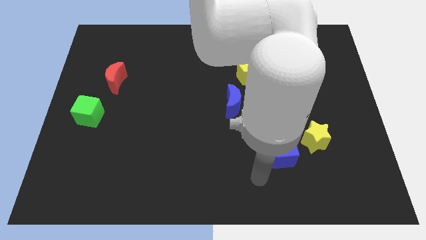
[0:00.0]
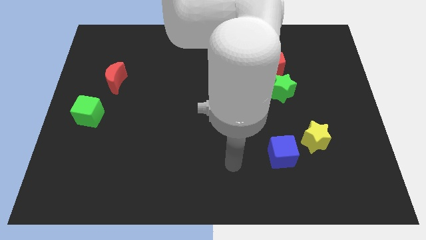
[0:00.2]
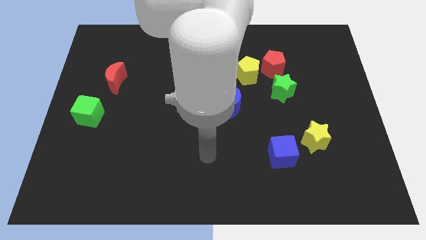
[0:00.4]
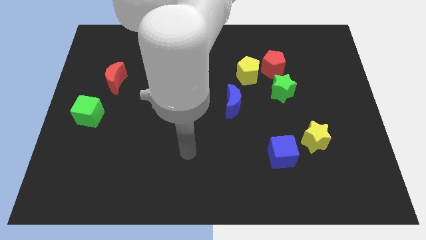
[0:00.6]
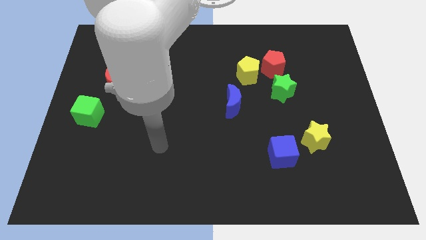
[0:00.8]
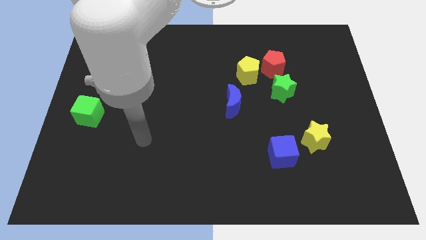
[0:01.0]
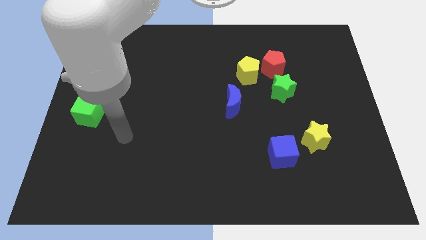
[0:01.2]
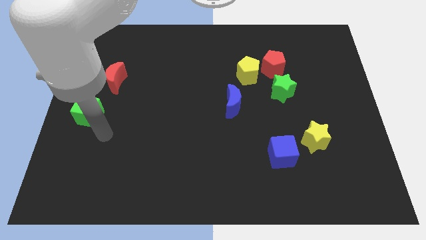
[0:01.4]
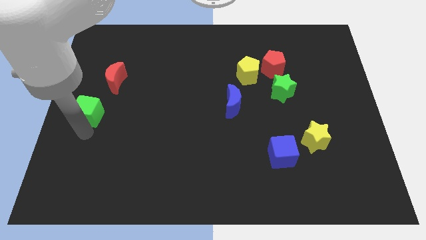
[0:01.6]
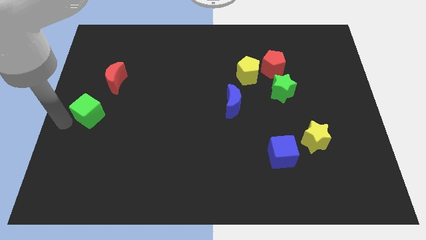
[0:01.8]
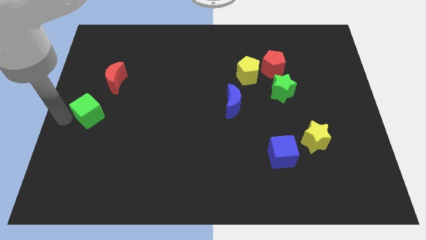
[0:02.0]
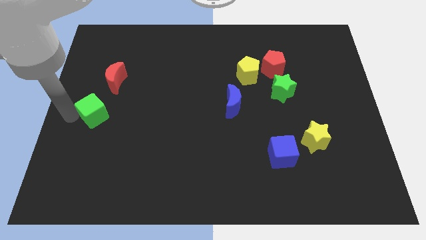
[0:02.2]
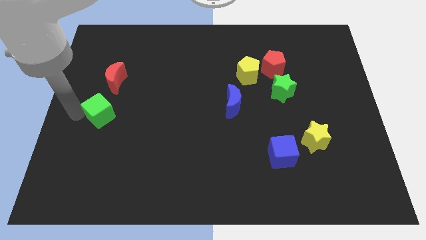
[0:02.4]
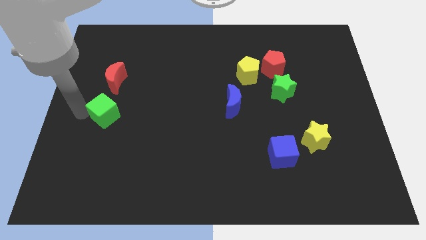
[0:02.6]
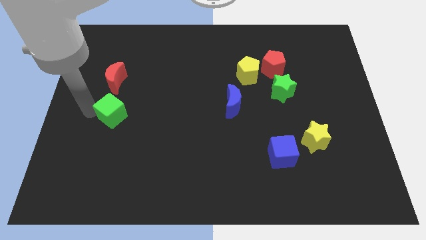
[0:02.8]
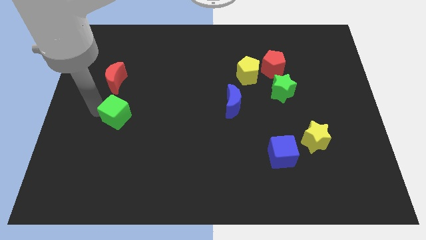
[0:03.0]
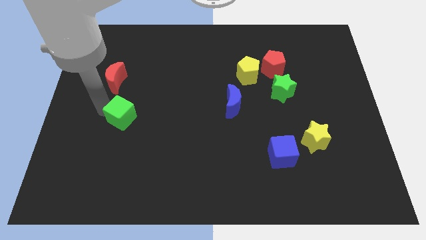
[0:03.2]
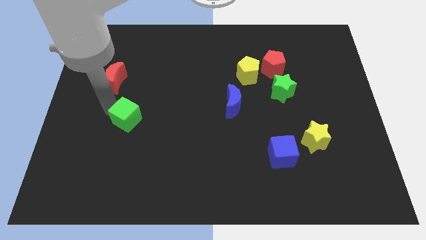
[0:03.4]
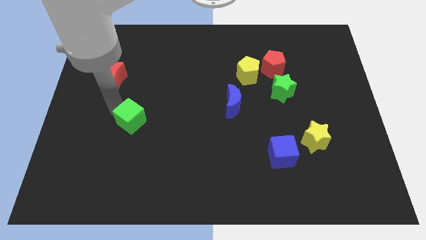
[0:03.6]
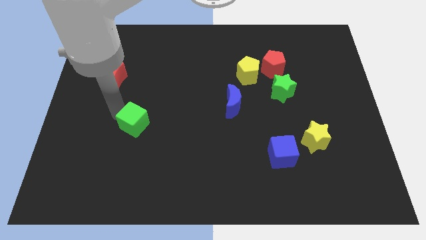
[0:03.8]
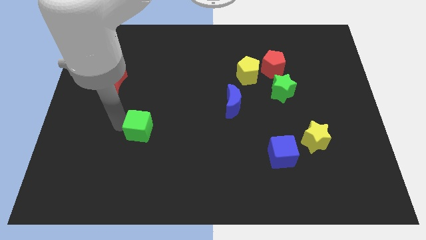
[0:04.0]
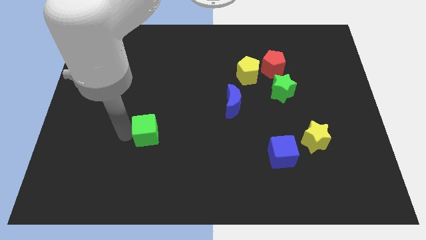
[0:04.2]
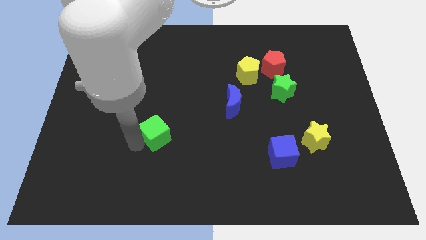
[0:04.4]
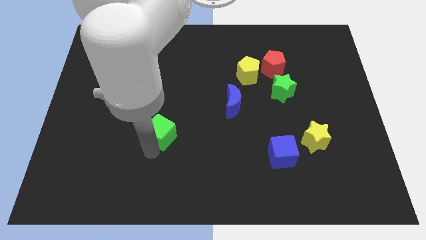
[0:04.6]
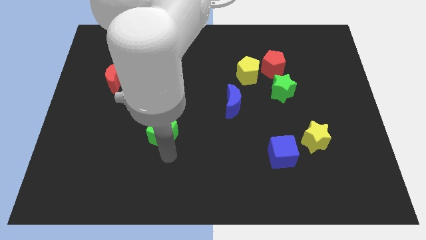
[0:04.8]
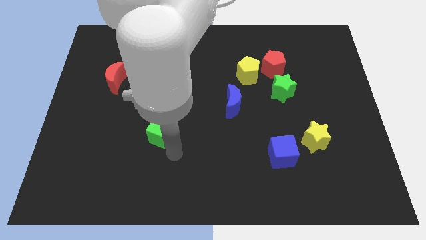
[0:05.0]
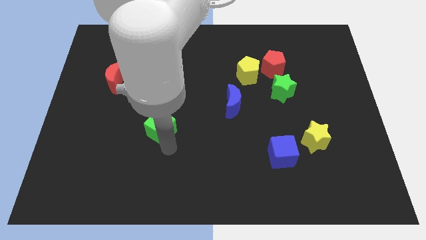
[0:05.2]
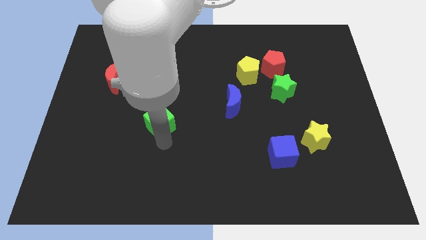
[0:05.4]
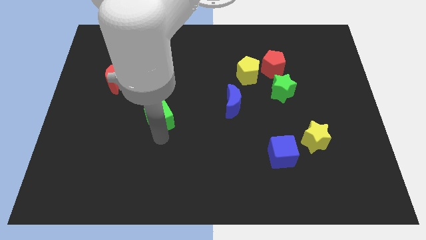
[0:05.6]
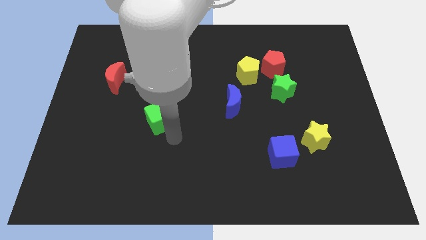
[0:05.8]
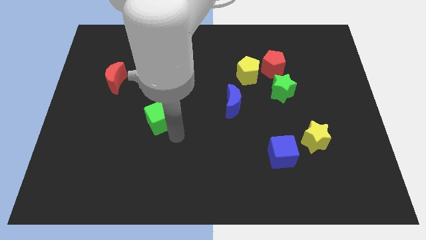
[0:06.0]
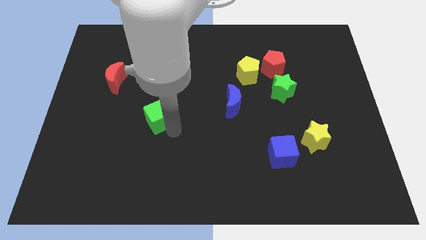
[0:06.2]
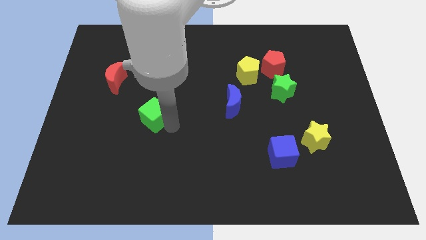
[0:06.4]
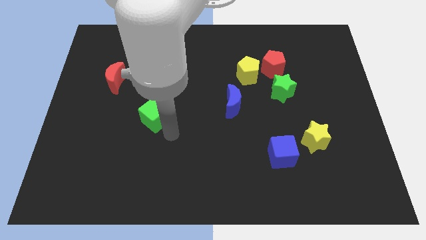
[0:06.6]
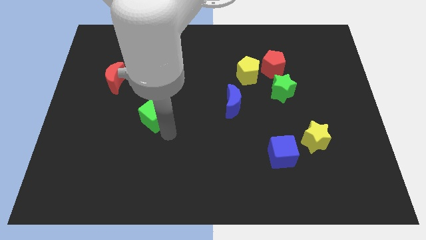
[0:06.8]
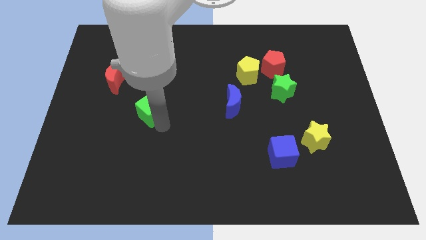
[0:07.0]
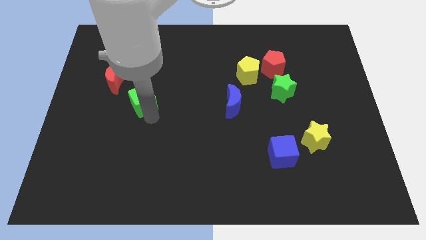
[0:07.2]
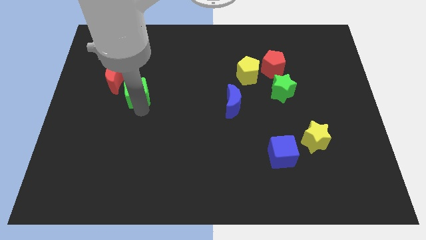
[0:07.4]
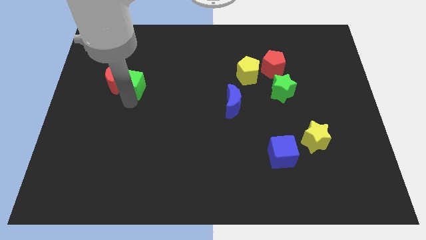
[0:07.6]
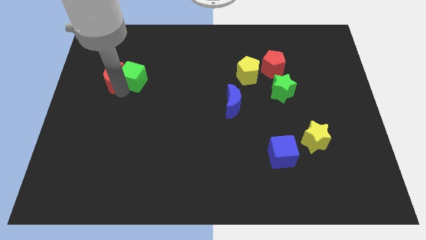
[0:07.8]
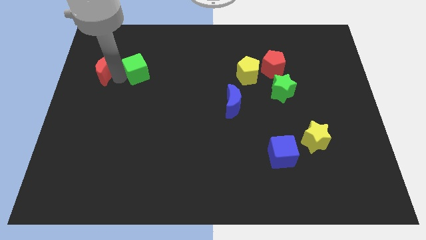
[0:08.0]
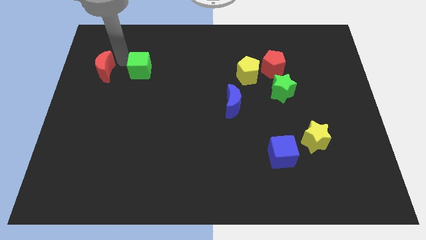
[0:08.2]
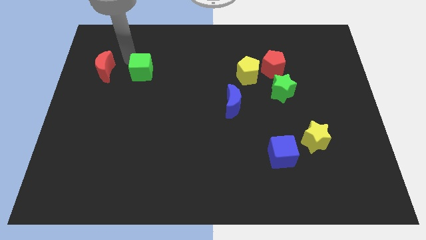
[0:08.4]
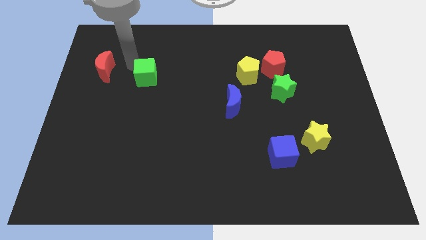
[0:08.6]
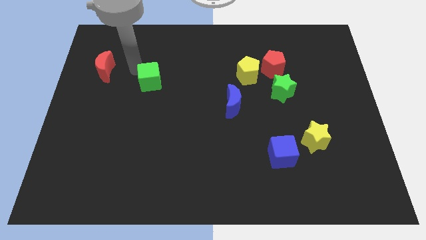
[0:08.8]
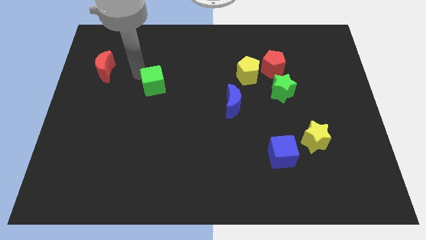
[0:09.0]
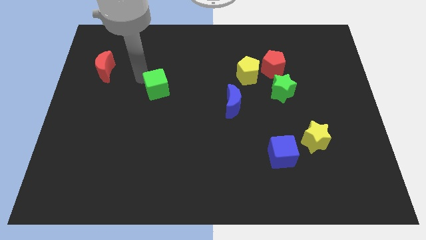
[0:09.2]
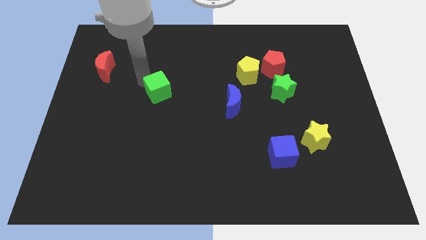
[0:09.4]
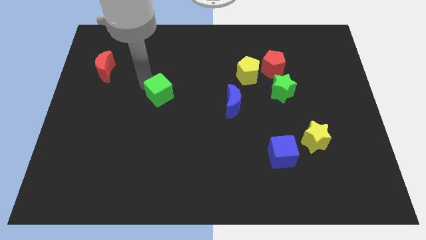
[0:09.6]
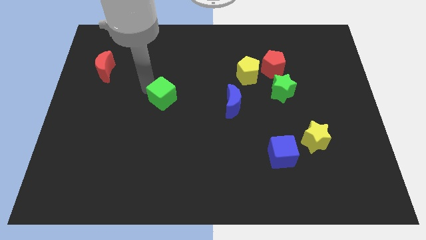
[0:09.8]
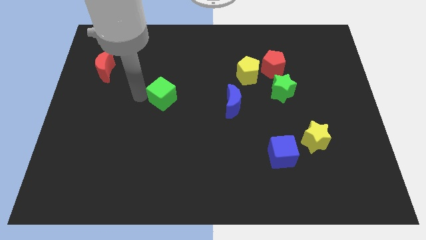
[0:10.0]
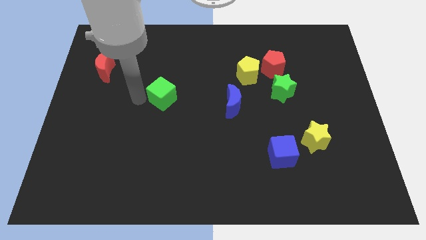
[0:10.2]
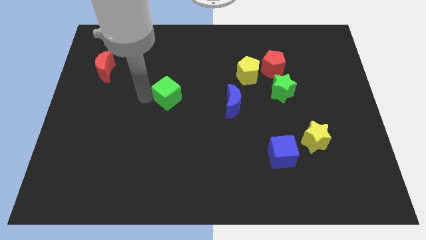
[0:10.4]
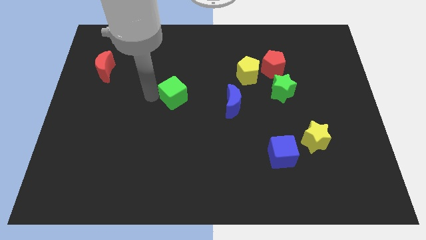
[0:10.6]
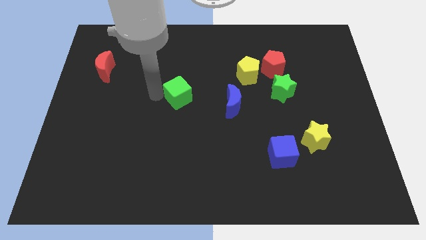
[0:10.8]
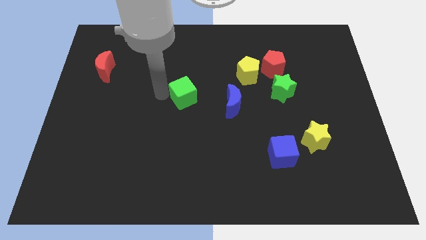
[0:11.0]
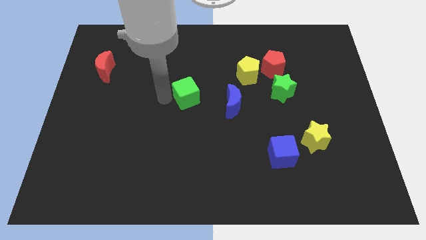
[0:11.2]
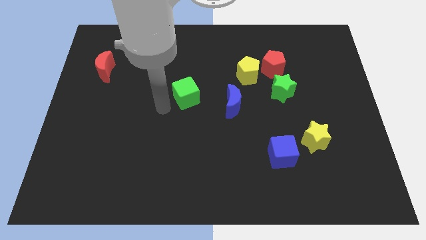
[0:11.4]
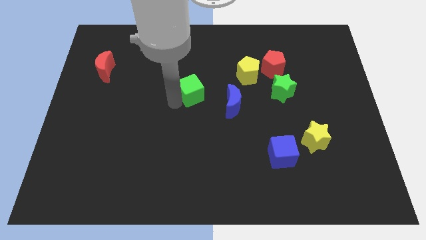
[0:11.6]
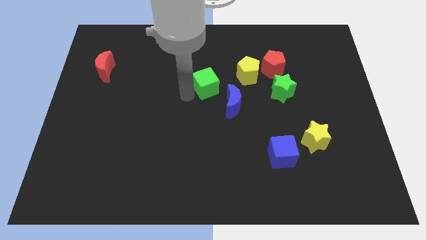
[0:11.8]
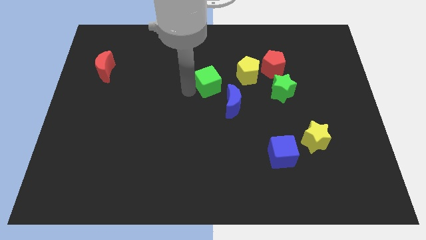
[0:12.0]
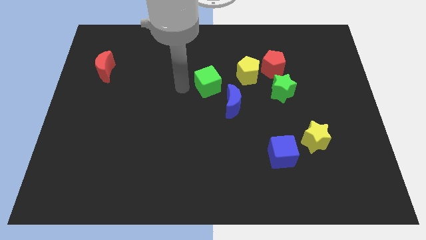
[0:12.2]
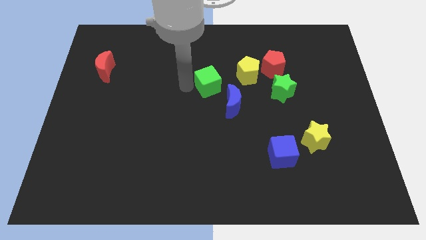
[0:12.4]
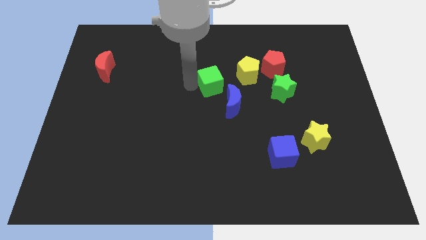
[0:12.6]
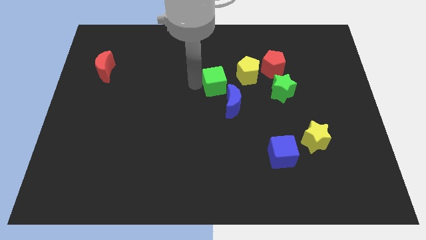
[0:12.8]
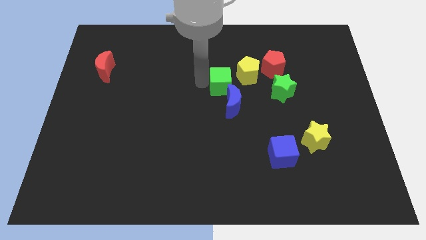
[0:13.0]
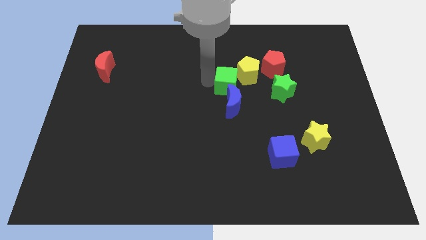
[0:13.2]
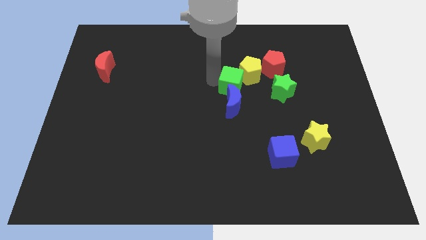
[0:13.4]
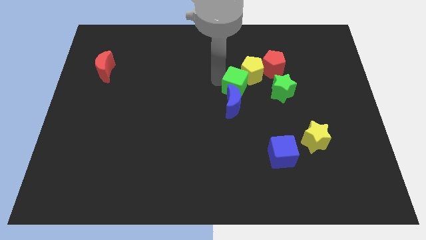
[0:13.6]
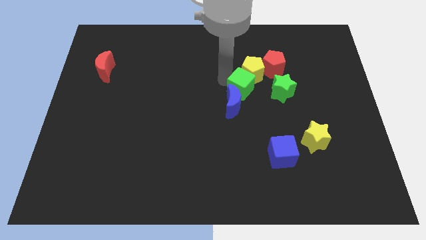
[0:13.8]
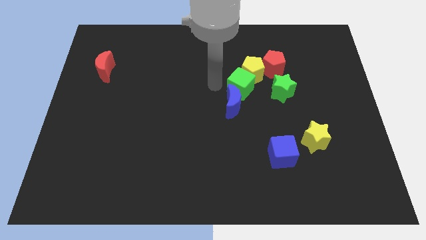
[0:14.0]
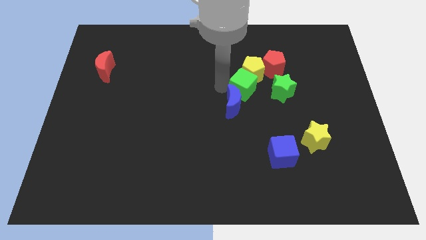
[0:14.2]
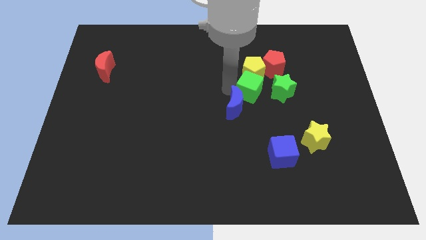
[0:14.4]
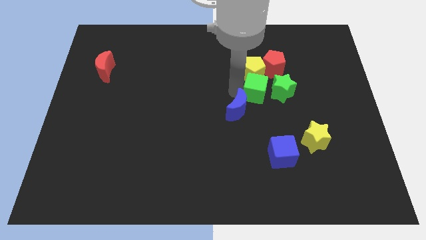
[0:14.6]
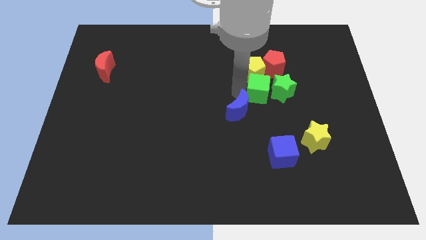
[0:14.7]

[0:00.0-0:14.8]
push the green cube to the green star
